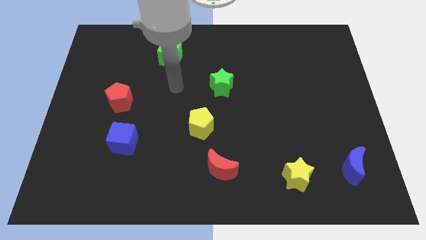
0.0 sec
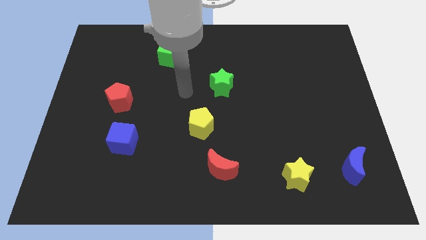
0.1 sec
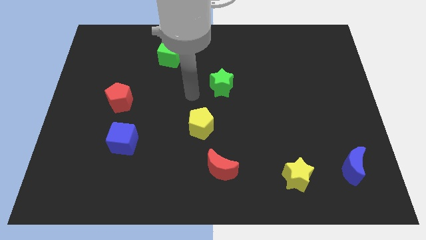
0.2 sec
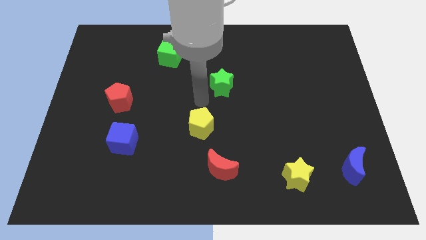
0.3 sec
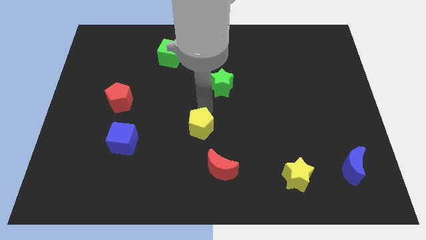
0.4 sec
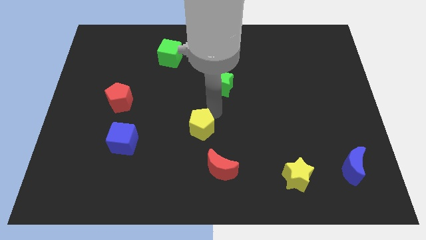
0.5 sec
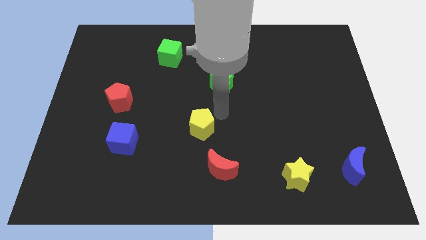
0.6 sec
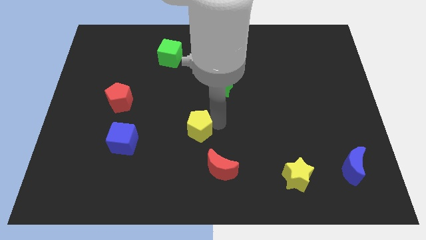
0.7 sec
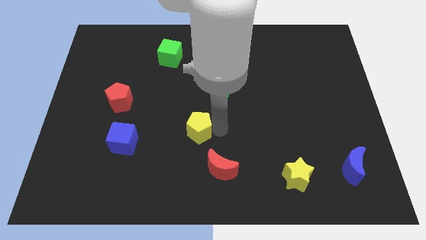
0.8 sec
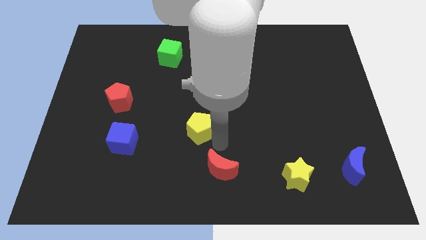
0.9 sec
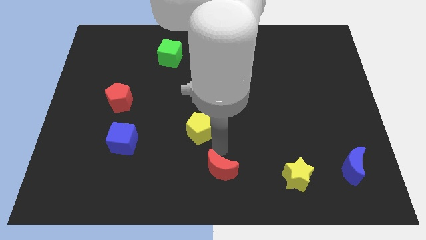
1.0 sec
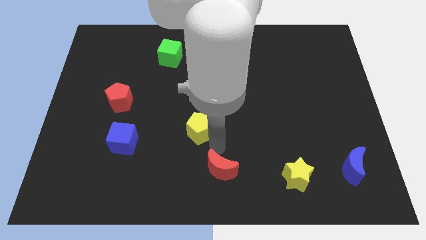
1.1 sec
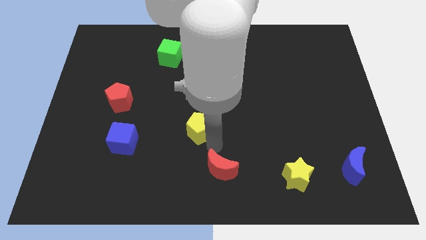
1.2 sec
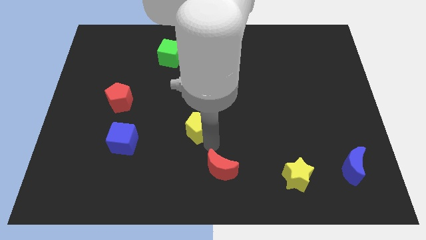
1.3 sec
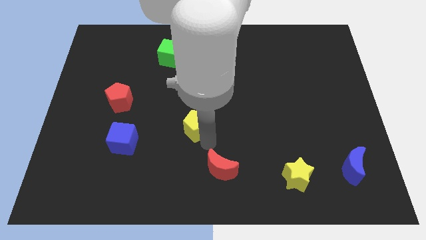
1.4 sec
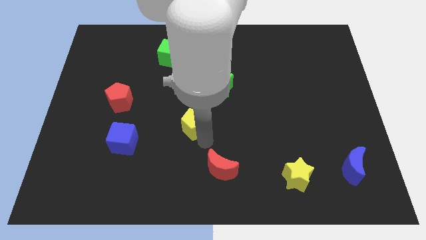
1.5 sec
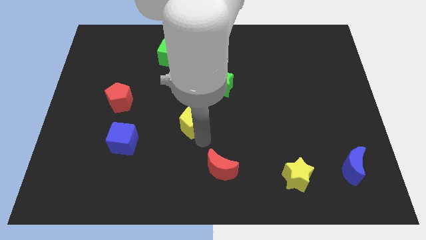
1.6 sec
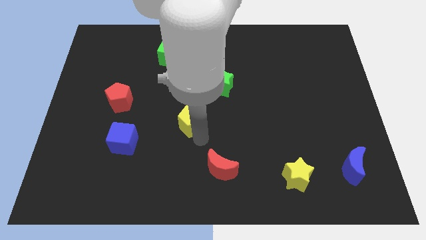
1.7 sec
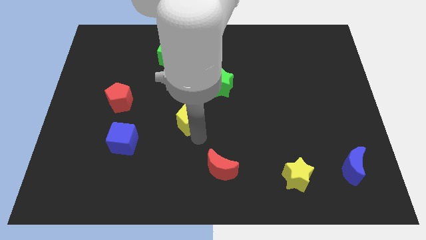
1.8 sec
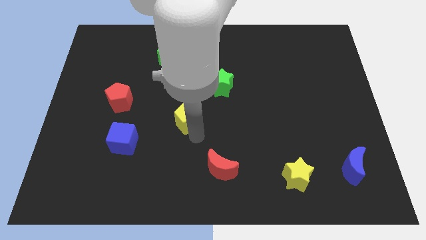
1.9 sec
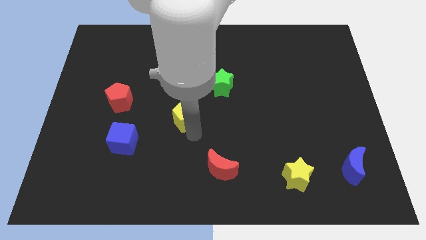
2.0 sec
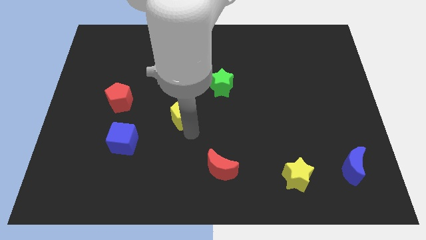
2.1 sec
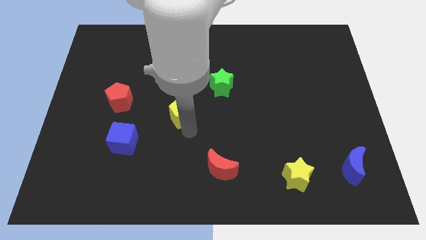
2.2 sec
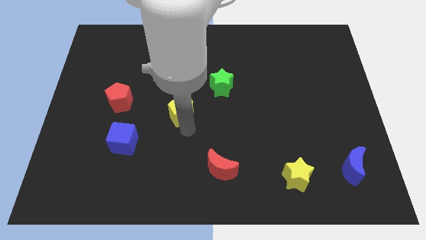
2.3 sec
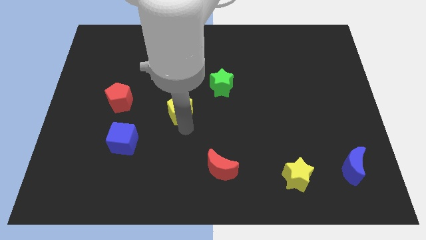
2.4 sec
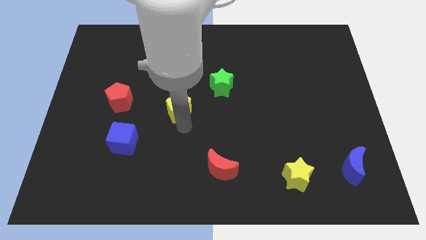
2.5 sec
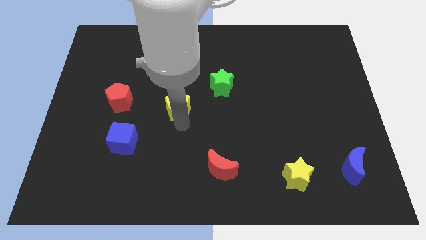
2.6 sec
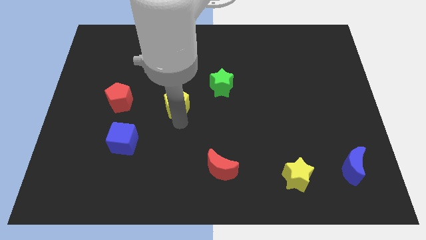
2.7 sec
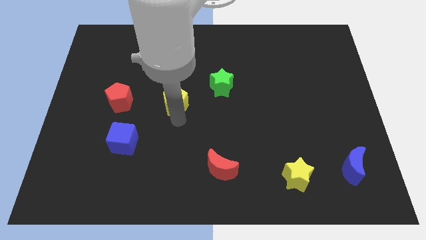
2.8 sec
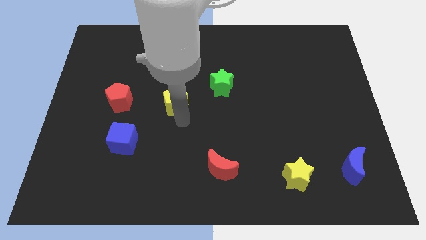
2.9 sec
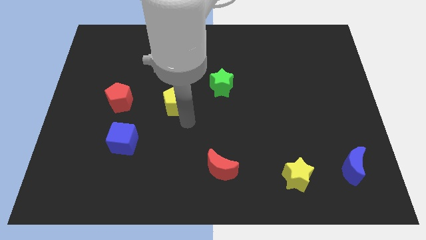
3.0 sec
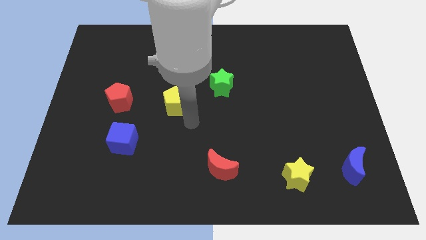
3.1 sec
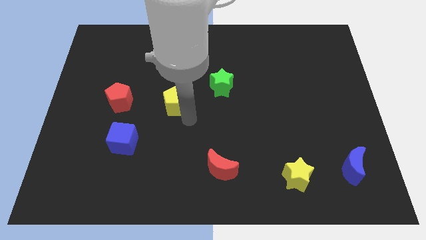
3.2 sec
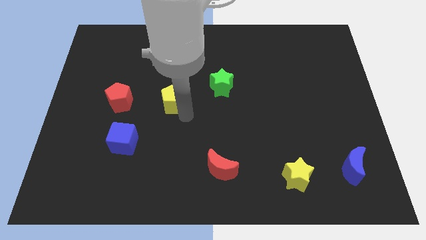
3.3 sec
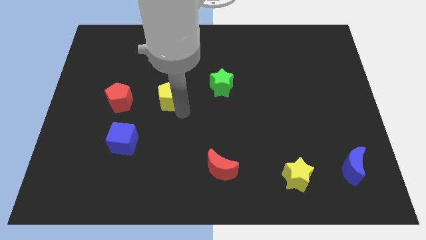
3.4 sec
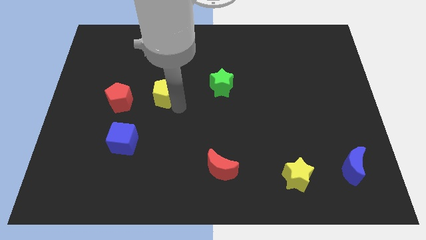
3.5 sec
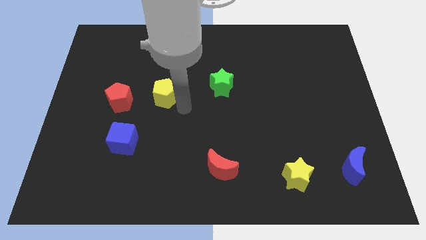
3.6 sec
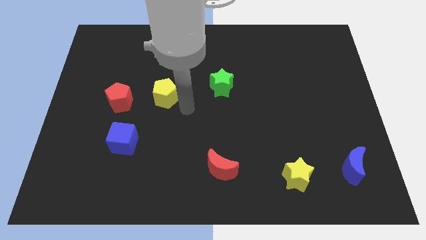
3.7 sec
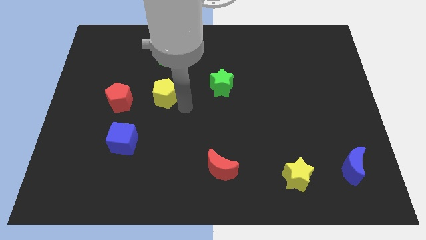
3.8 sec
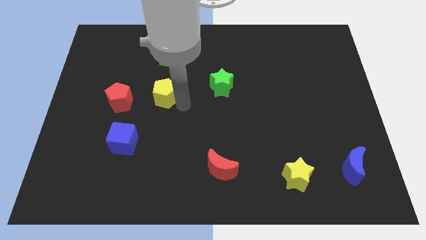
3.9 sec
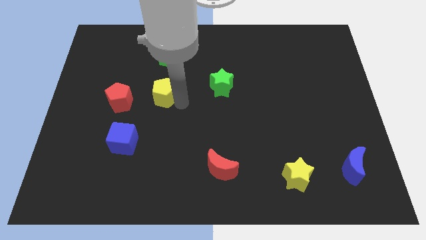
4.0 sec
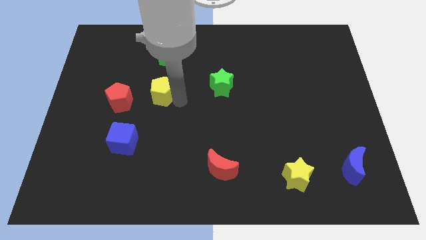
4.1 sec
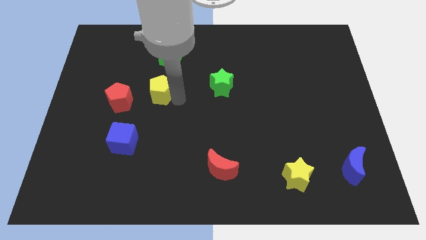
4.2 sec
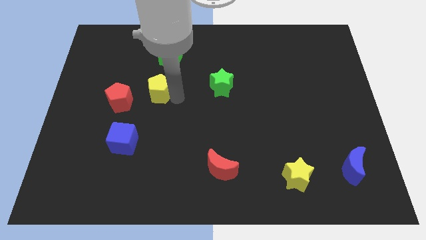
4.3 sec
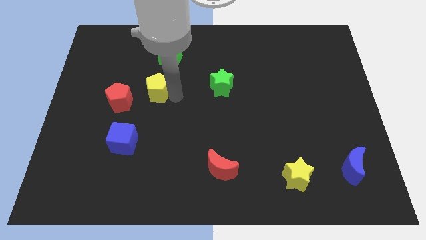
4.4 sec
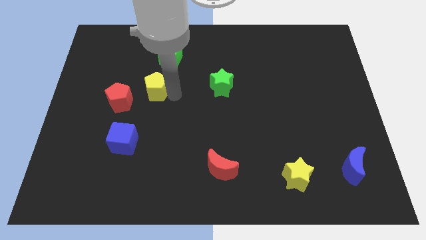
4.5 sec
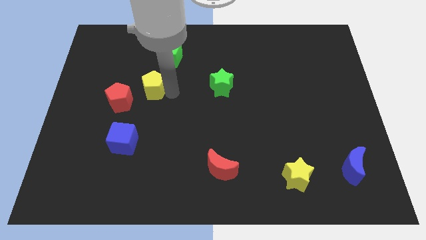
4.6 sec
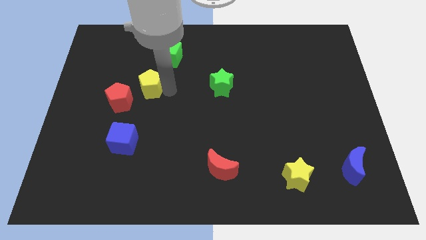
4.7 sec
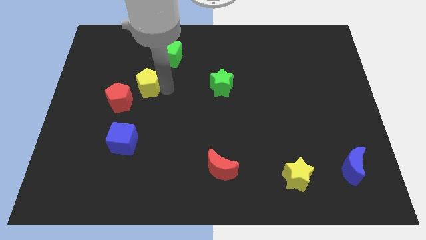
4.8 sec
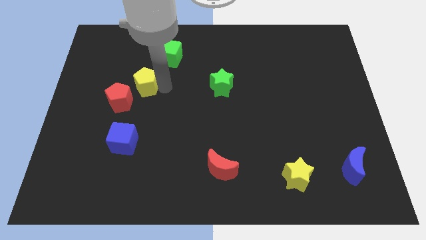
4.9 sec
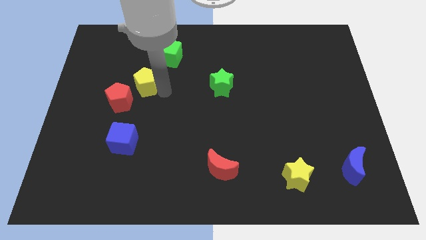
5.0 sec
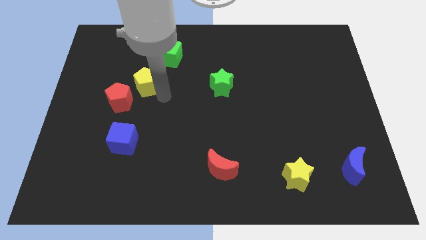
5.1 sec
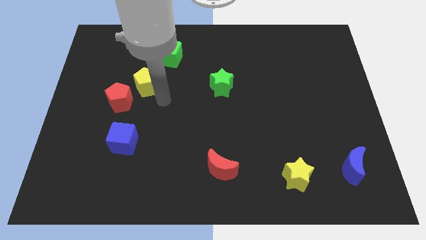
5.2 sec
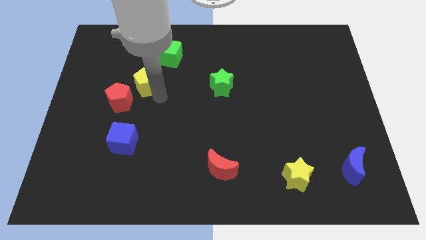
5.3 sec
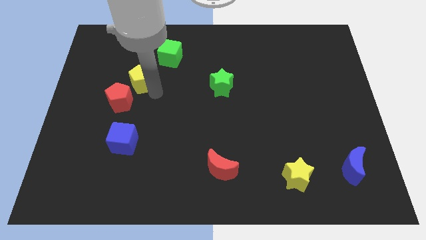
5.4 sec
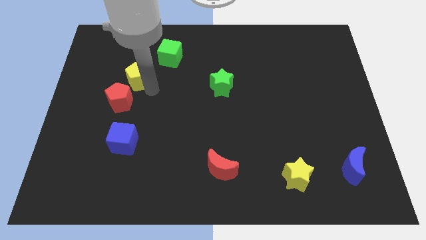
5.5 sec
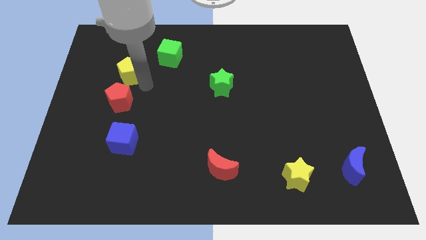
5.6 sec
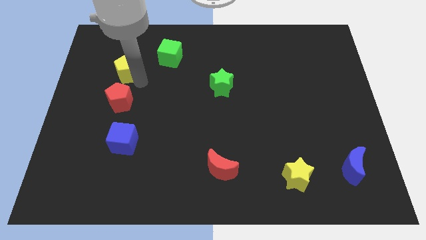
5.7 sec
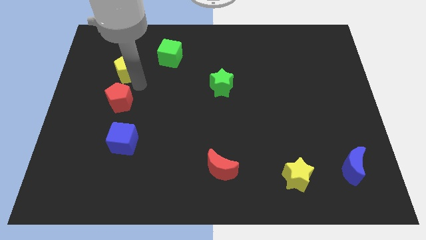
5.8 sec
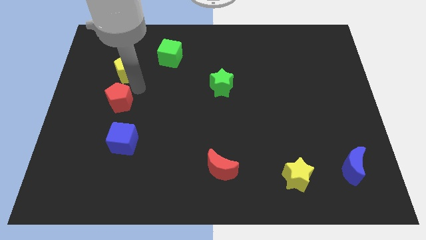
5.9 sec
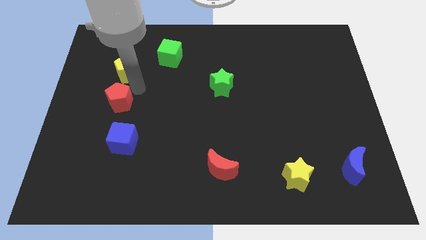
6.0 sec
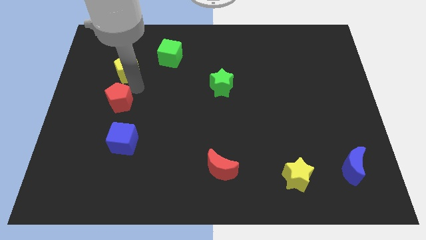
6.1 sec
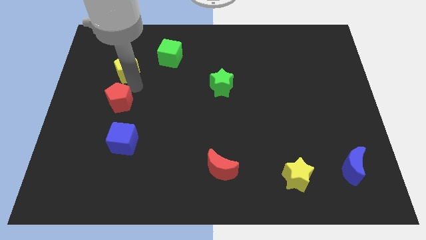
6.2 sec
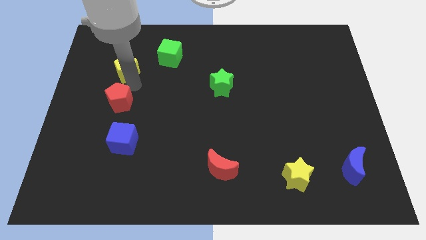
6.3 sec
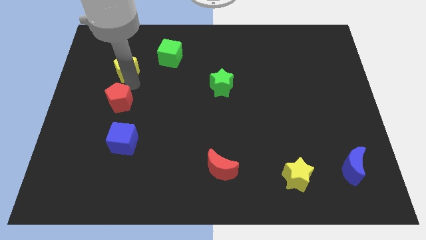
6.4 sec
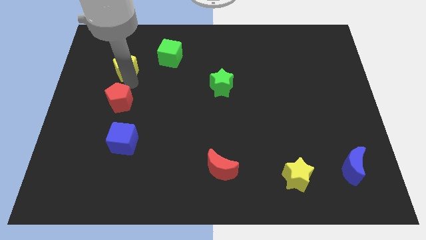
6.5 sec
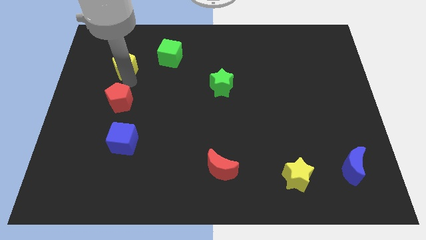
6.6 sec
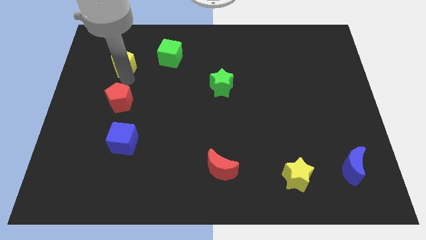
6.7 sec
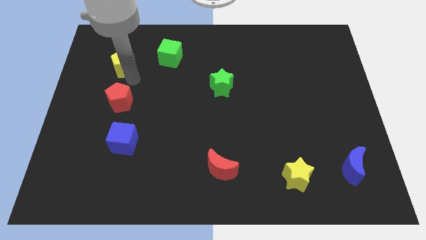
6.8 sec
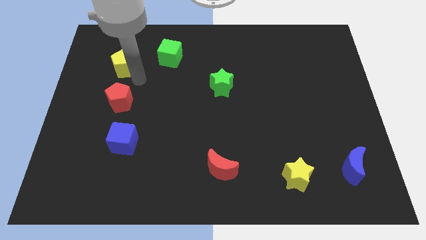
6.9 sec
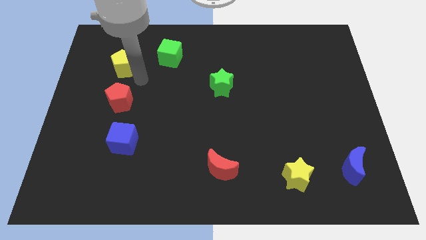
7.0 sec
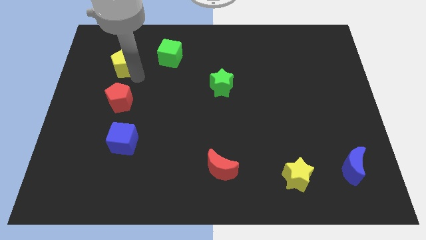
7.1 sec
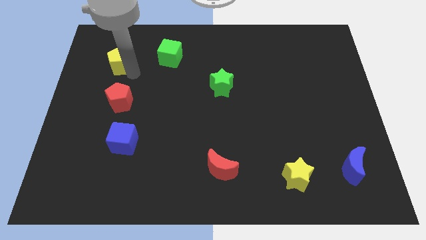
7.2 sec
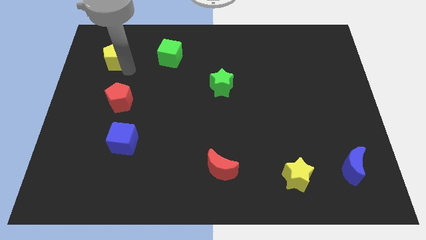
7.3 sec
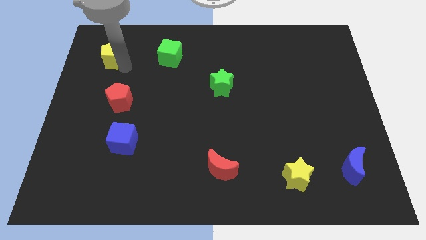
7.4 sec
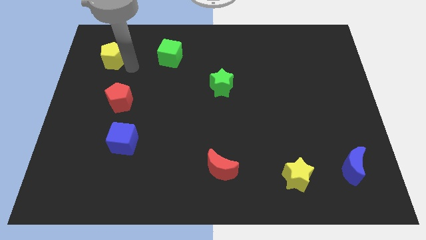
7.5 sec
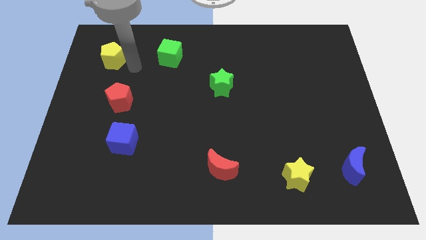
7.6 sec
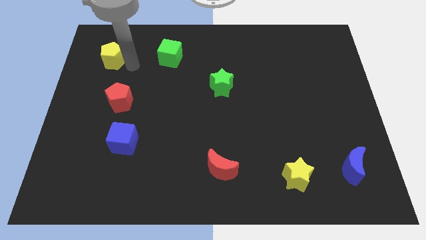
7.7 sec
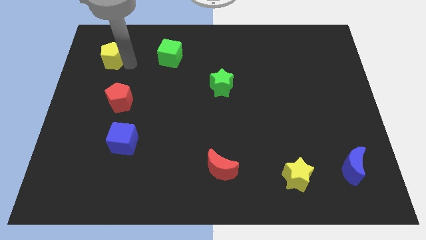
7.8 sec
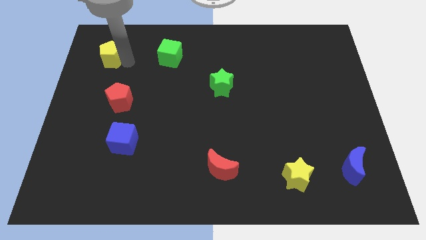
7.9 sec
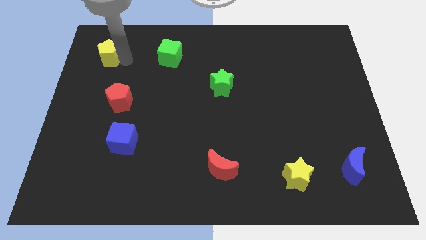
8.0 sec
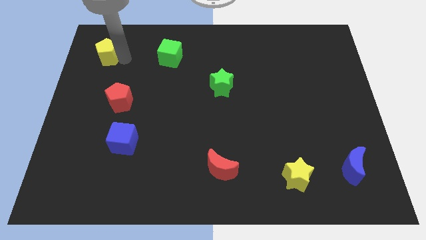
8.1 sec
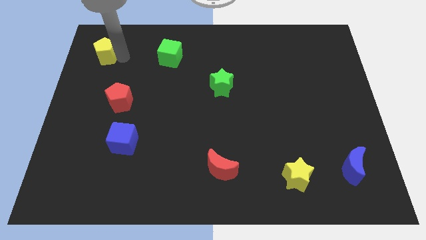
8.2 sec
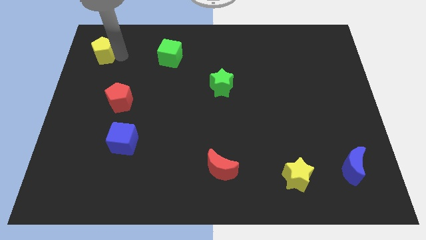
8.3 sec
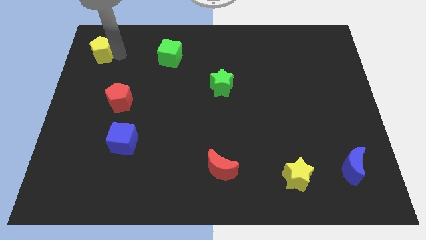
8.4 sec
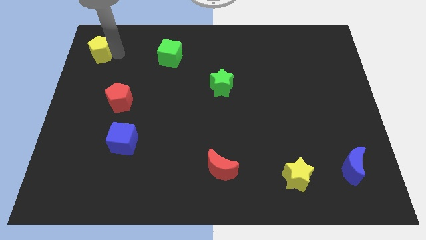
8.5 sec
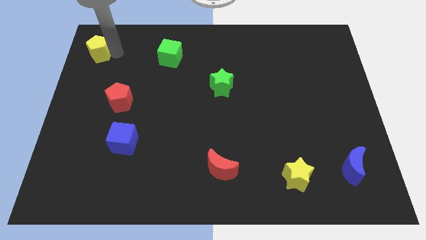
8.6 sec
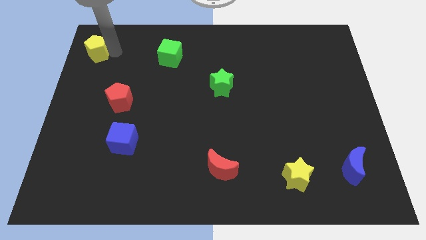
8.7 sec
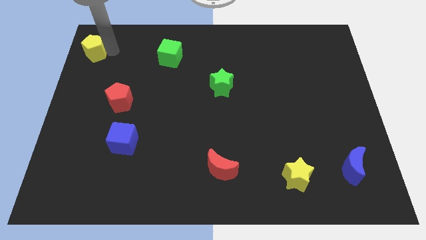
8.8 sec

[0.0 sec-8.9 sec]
move the yellow pentagon to the top left corner
